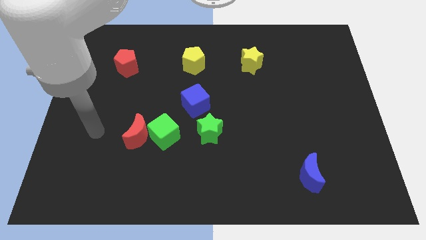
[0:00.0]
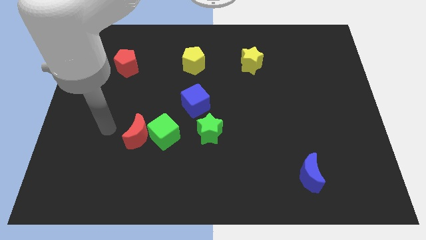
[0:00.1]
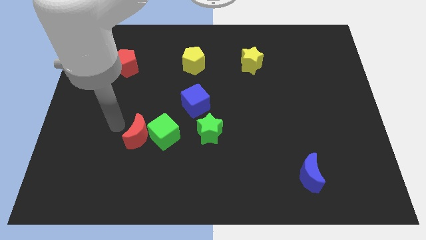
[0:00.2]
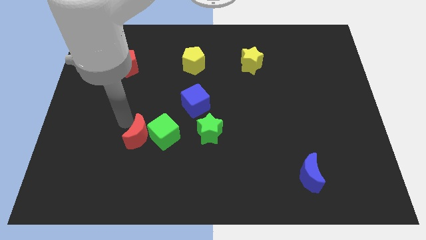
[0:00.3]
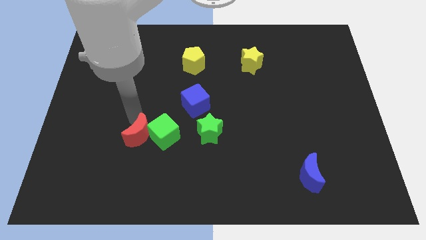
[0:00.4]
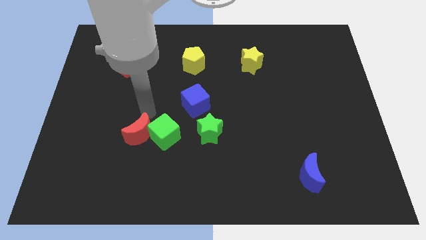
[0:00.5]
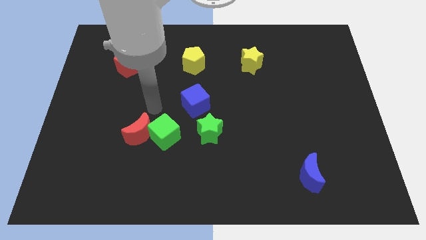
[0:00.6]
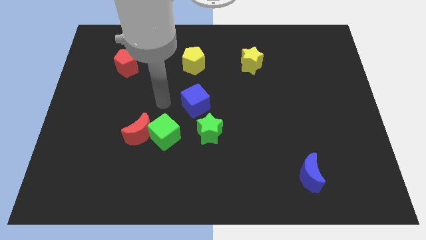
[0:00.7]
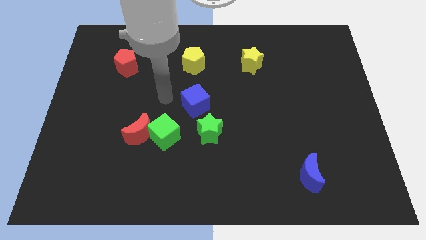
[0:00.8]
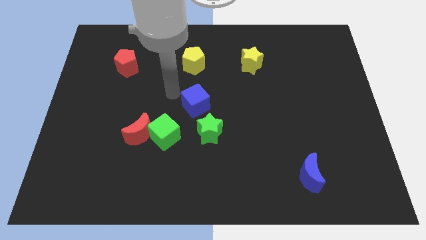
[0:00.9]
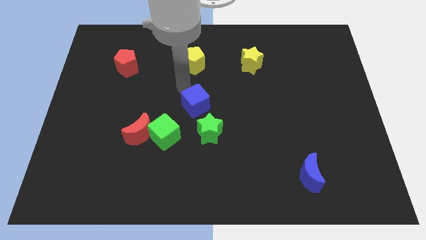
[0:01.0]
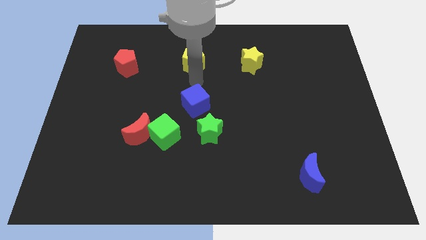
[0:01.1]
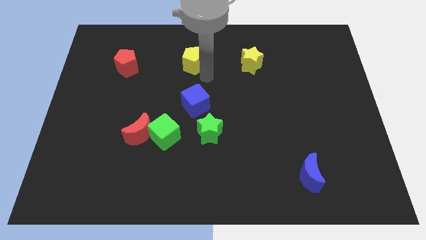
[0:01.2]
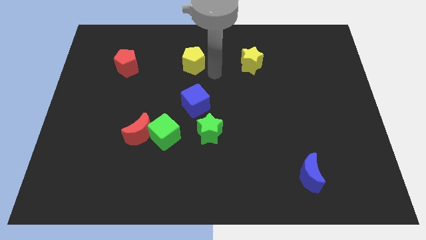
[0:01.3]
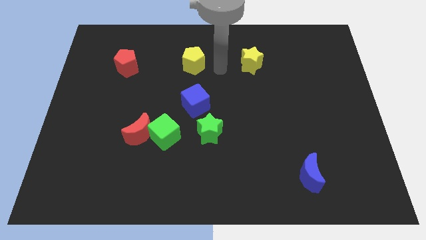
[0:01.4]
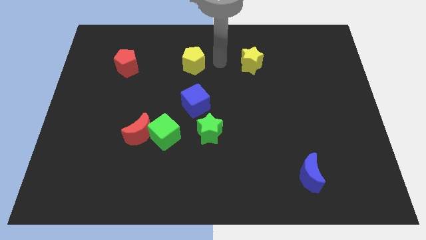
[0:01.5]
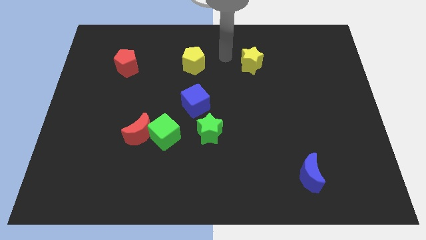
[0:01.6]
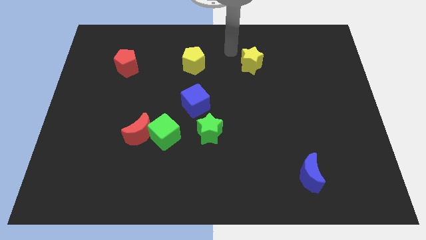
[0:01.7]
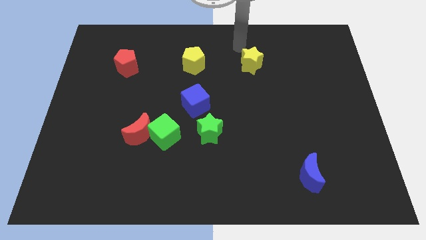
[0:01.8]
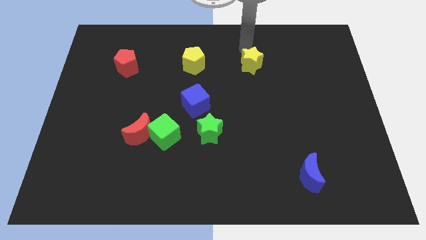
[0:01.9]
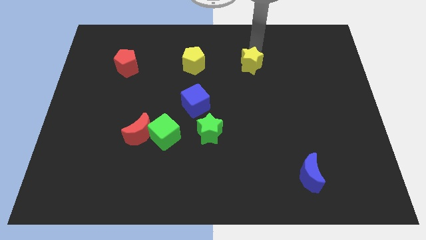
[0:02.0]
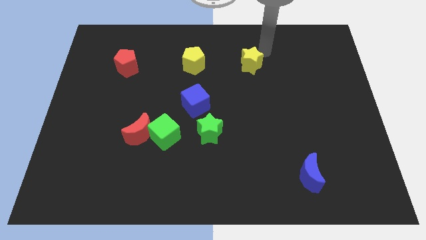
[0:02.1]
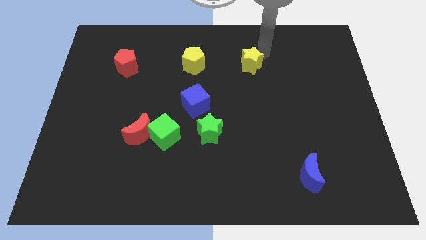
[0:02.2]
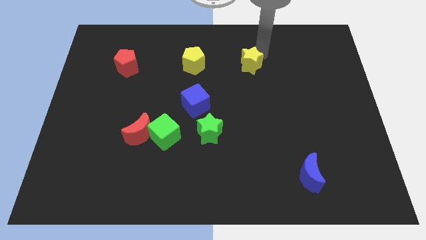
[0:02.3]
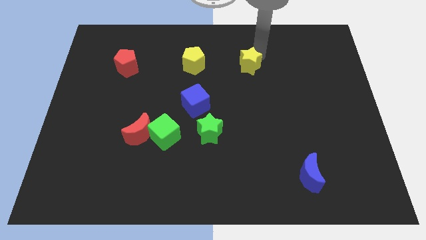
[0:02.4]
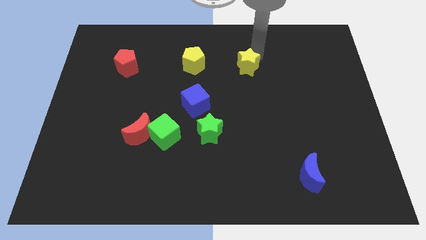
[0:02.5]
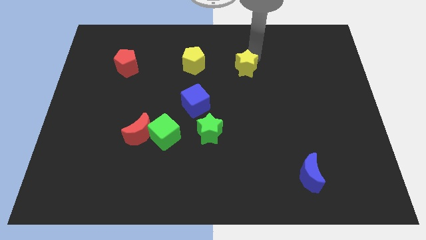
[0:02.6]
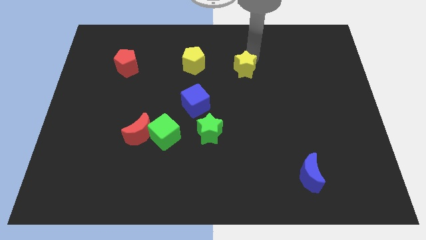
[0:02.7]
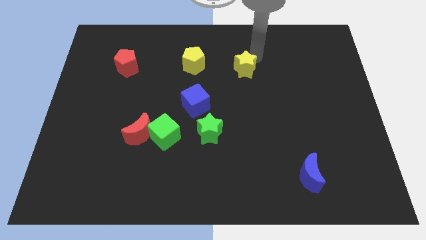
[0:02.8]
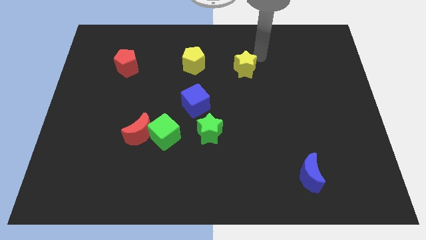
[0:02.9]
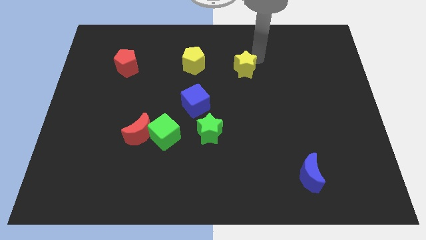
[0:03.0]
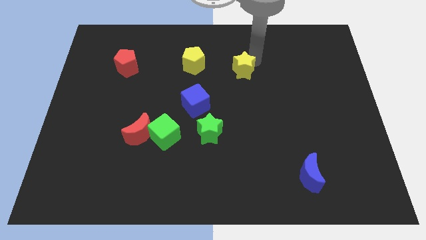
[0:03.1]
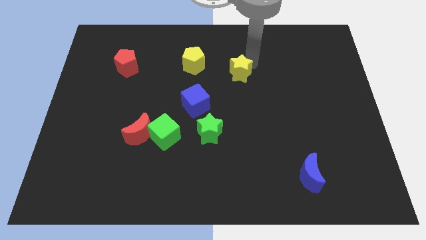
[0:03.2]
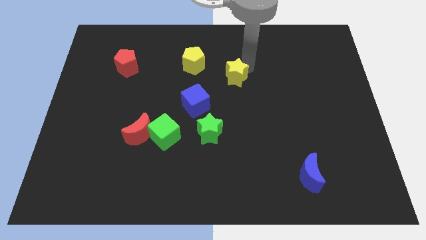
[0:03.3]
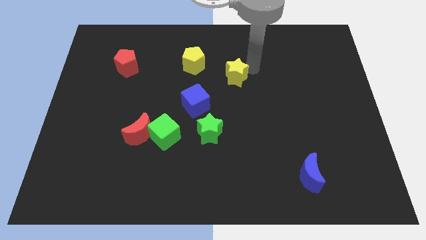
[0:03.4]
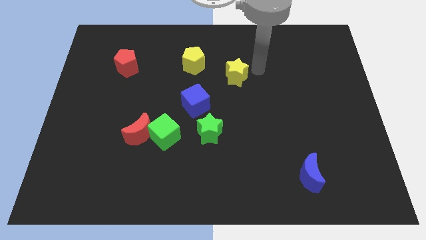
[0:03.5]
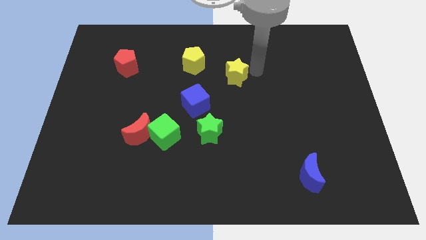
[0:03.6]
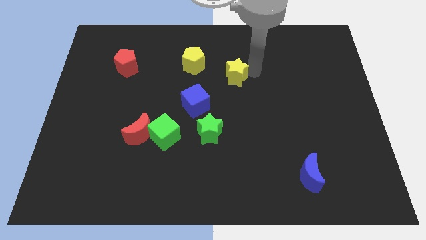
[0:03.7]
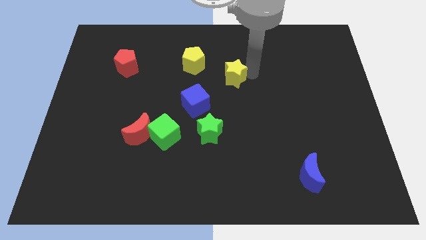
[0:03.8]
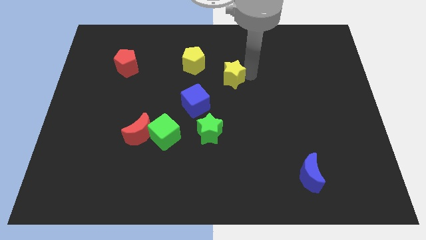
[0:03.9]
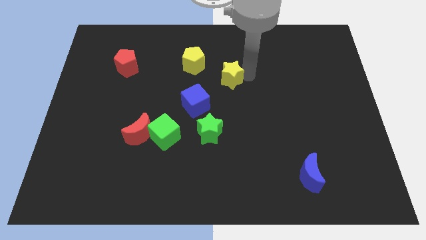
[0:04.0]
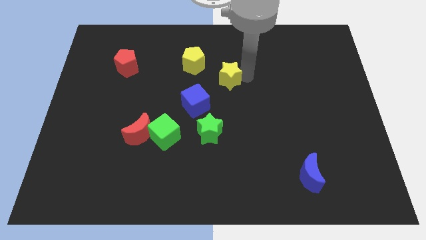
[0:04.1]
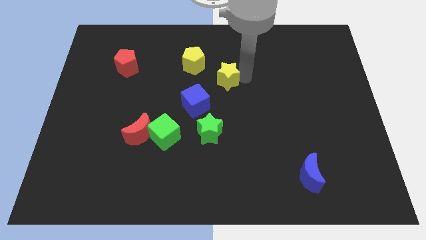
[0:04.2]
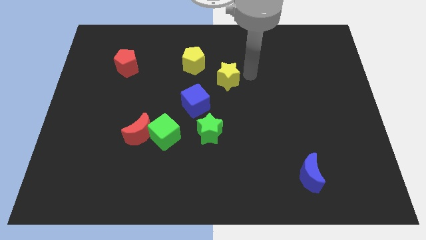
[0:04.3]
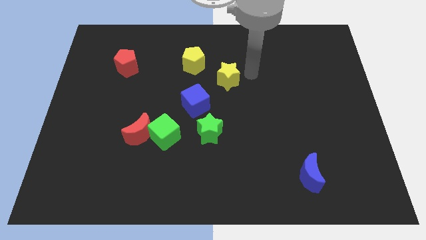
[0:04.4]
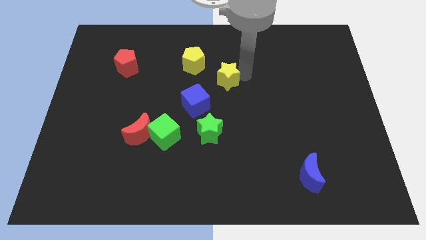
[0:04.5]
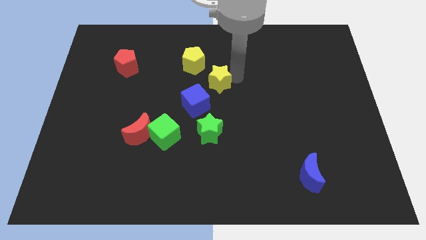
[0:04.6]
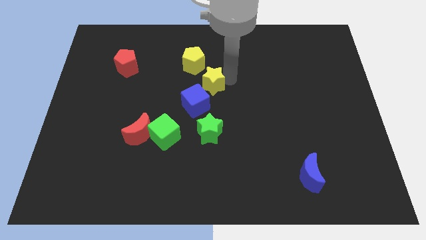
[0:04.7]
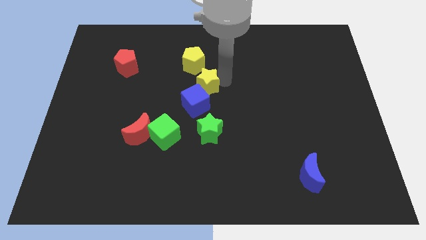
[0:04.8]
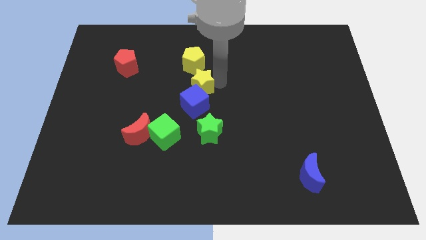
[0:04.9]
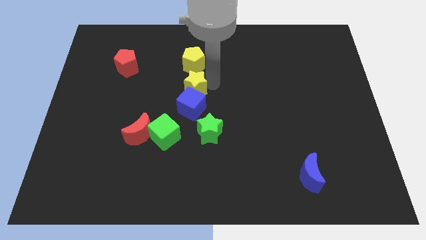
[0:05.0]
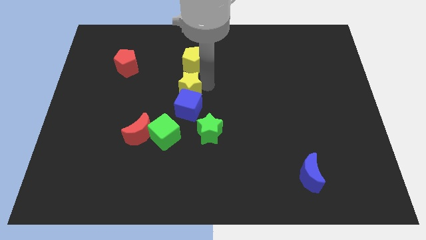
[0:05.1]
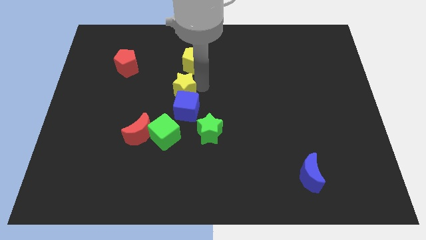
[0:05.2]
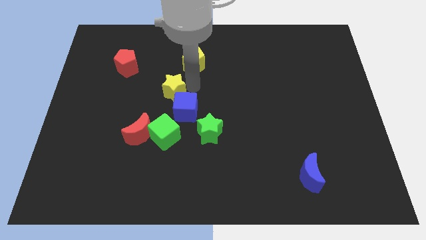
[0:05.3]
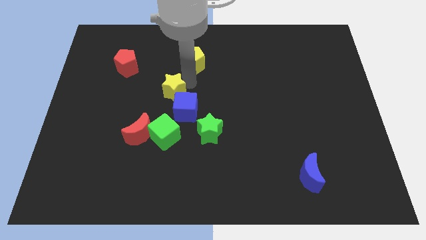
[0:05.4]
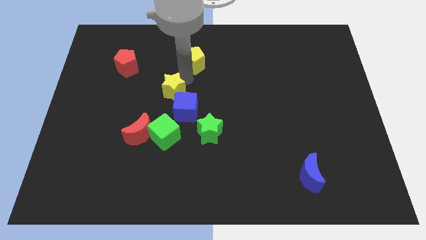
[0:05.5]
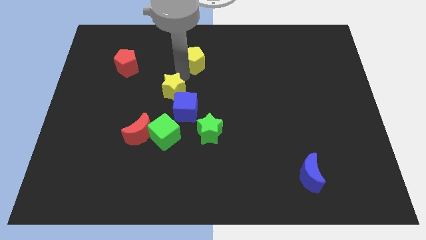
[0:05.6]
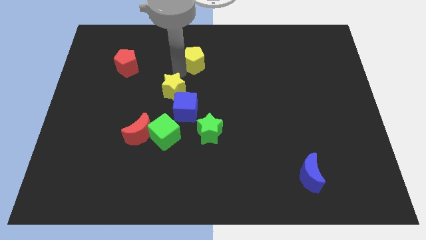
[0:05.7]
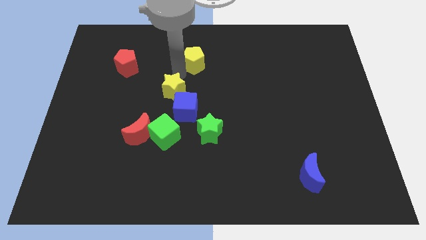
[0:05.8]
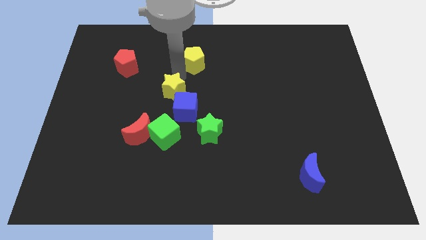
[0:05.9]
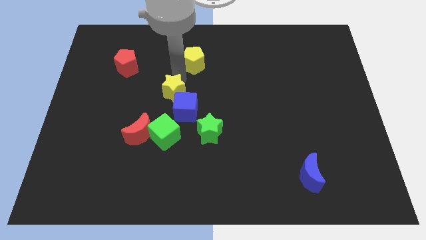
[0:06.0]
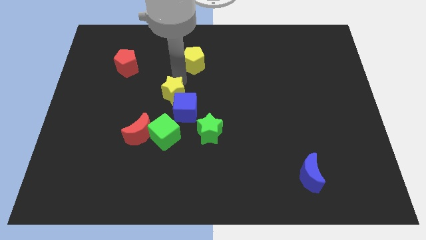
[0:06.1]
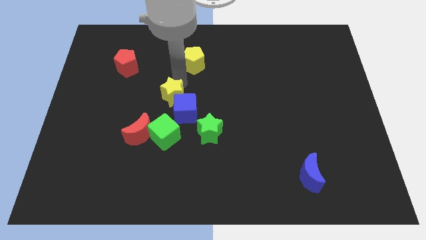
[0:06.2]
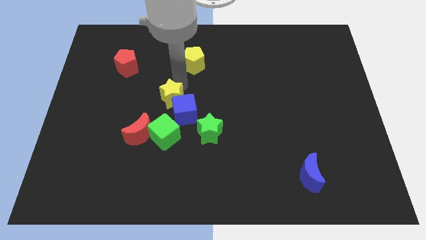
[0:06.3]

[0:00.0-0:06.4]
push the yellow star to the top right of the red moon
